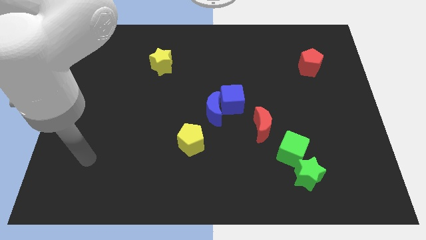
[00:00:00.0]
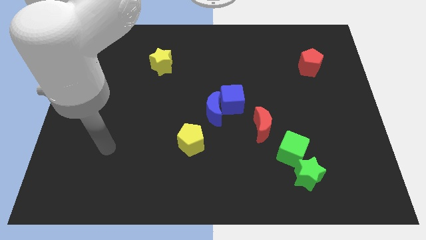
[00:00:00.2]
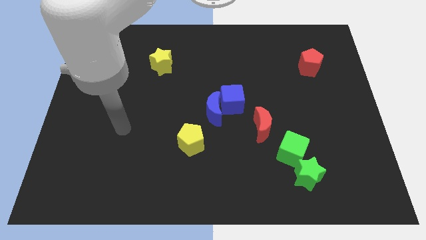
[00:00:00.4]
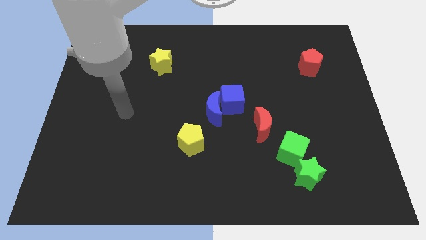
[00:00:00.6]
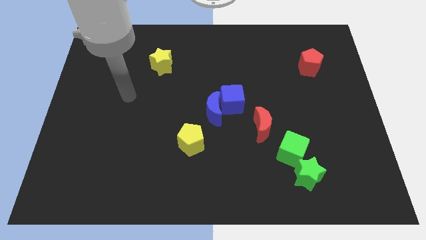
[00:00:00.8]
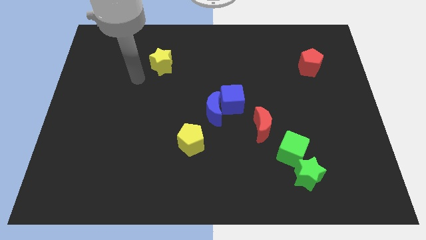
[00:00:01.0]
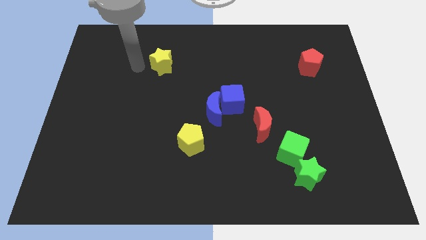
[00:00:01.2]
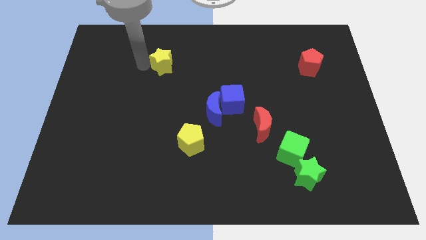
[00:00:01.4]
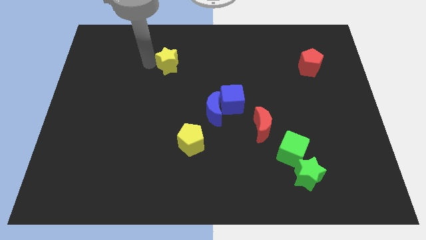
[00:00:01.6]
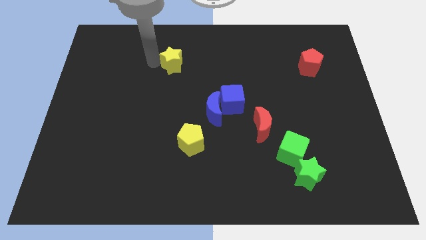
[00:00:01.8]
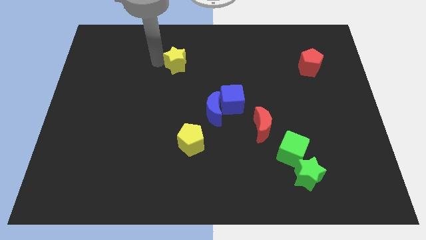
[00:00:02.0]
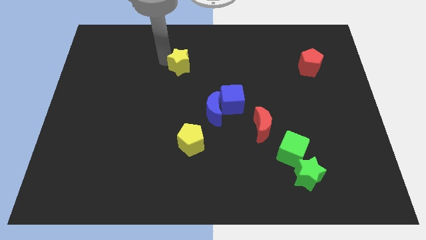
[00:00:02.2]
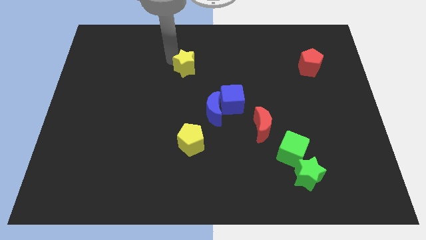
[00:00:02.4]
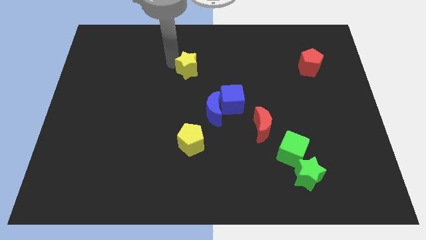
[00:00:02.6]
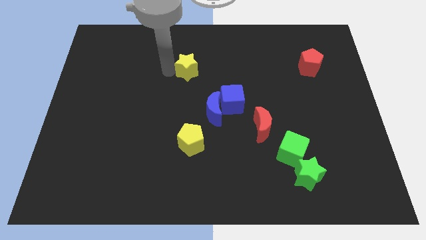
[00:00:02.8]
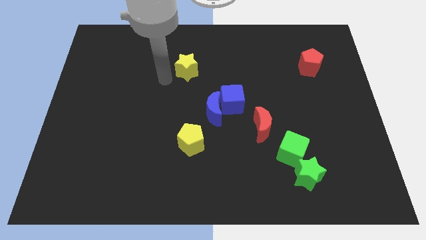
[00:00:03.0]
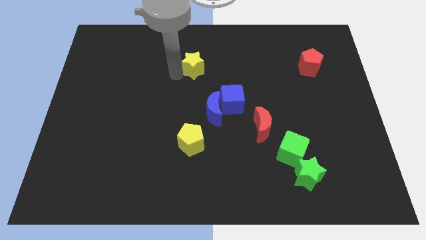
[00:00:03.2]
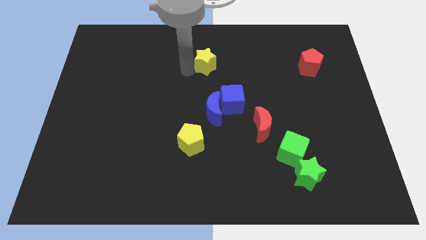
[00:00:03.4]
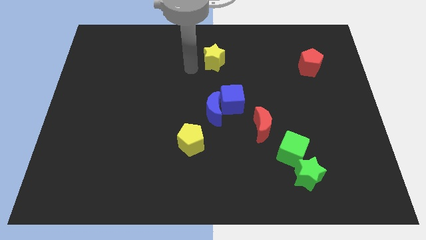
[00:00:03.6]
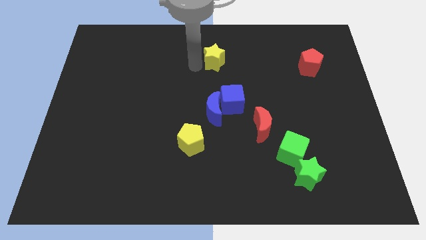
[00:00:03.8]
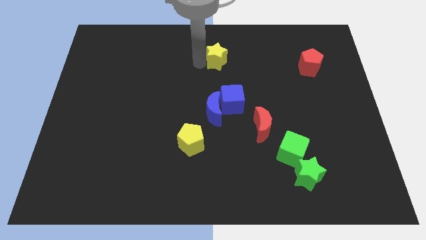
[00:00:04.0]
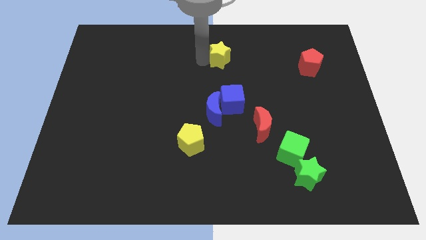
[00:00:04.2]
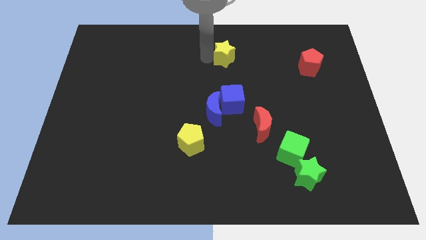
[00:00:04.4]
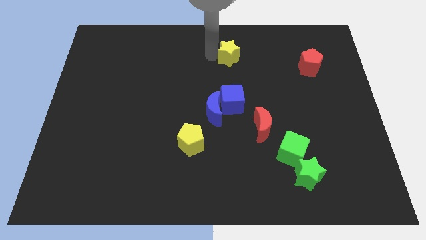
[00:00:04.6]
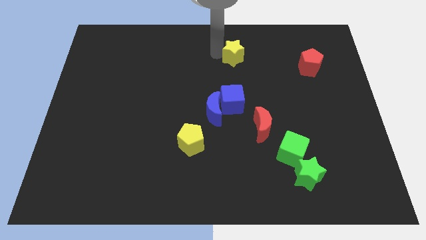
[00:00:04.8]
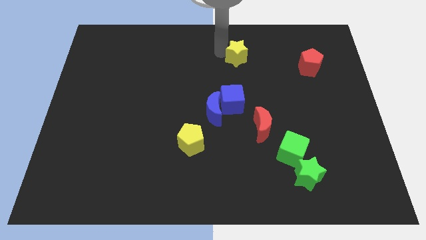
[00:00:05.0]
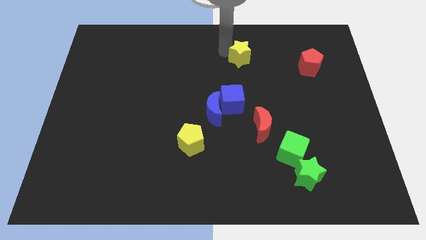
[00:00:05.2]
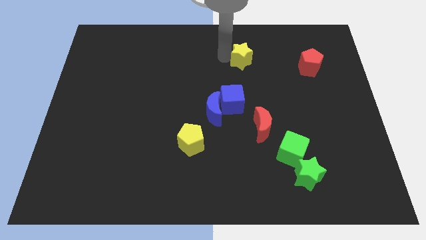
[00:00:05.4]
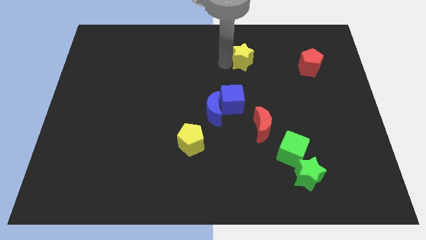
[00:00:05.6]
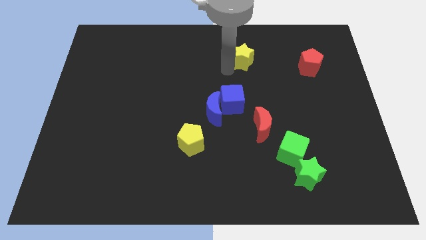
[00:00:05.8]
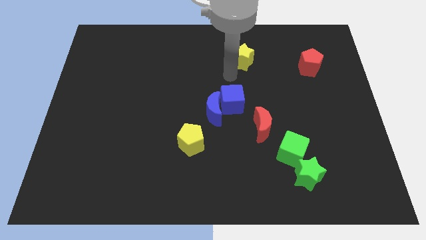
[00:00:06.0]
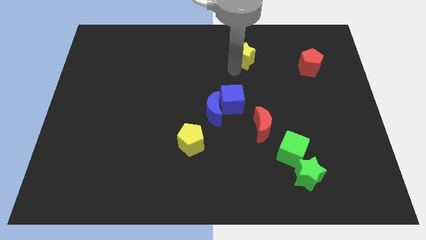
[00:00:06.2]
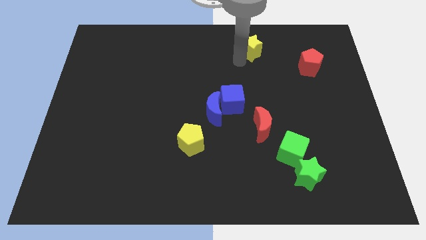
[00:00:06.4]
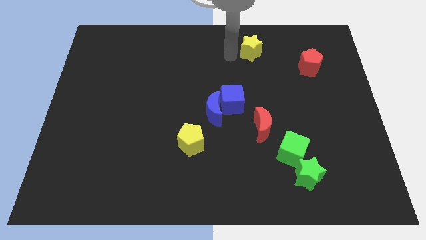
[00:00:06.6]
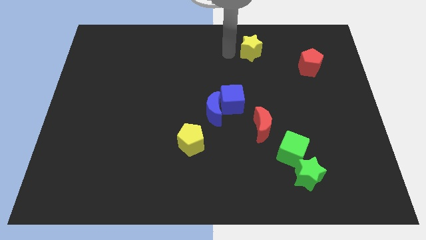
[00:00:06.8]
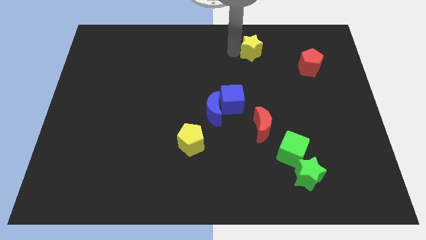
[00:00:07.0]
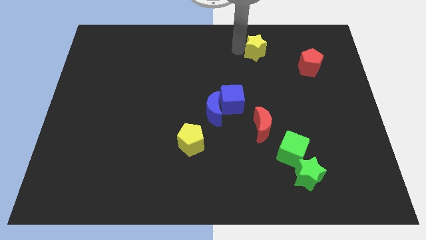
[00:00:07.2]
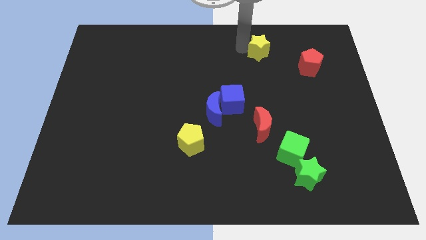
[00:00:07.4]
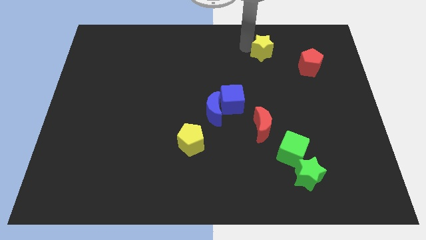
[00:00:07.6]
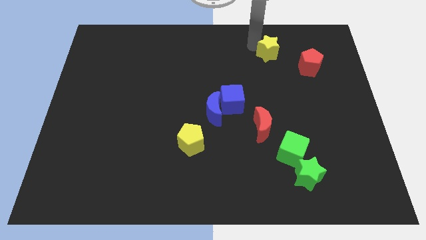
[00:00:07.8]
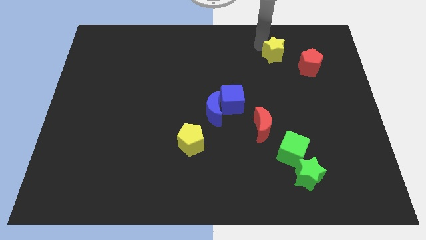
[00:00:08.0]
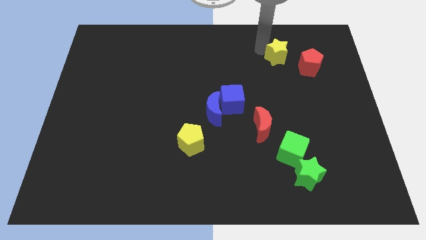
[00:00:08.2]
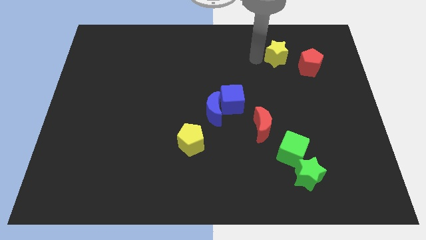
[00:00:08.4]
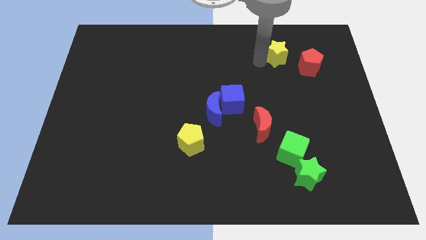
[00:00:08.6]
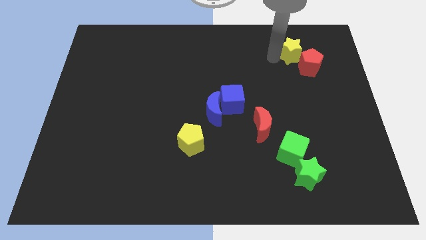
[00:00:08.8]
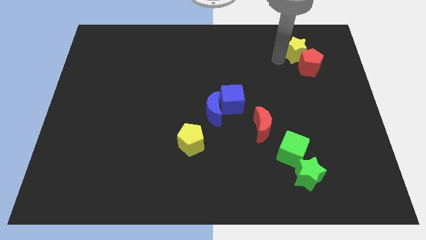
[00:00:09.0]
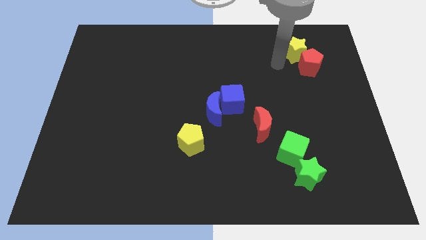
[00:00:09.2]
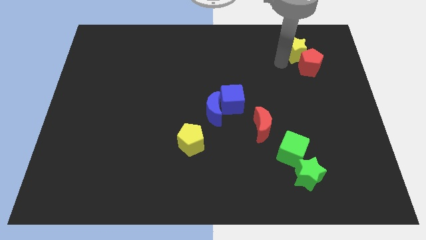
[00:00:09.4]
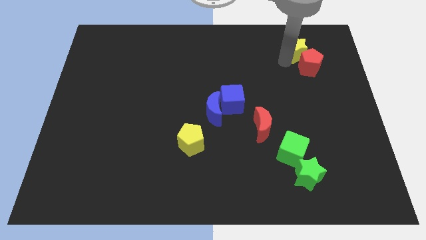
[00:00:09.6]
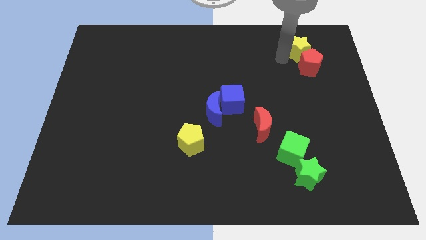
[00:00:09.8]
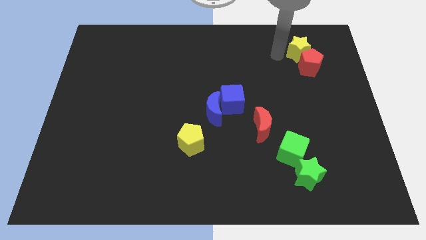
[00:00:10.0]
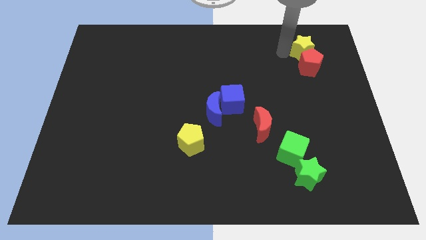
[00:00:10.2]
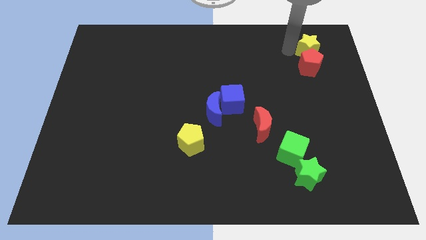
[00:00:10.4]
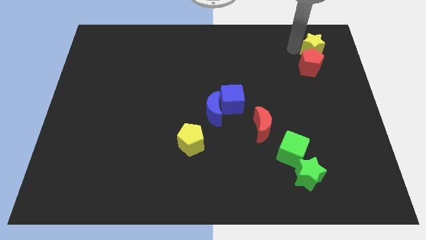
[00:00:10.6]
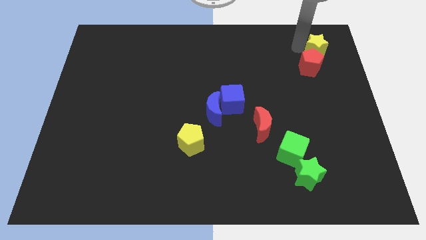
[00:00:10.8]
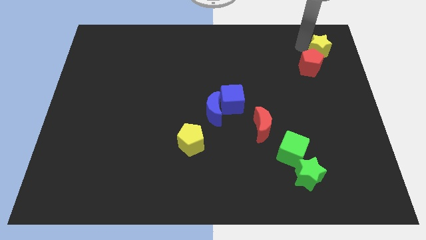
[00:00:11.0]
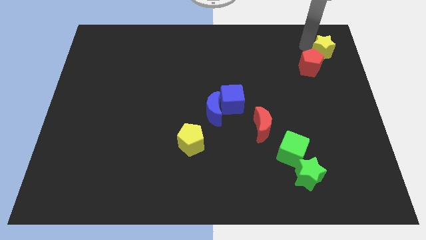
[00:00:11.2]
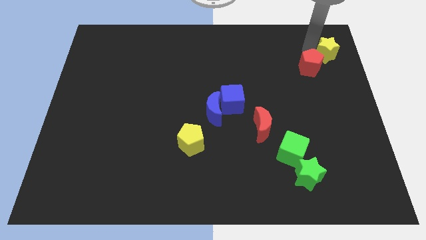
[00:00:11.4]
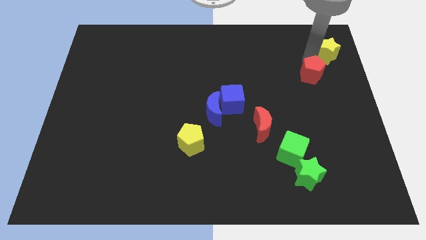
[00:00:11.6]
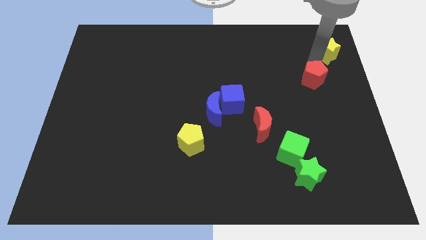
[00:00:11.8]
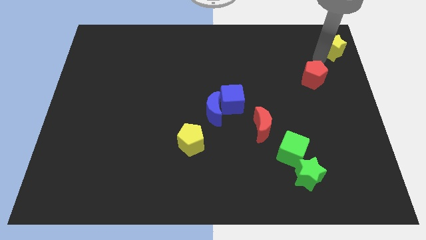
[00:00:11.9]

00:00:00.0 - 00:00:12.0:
slide the yellow star to the upper right corner
